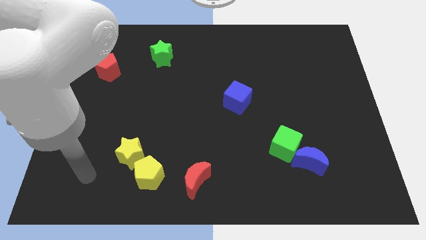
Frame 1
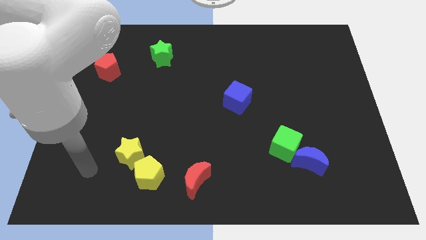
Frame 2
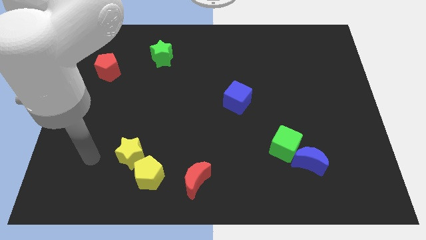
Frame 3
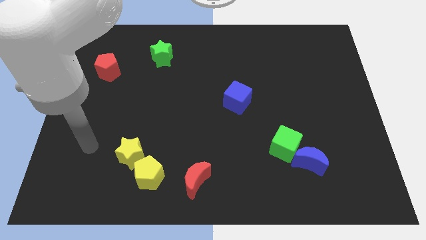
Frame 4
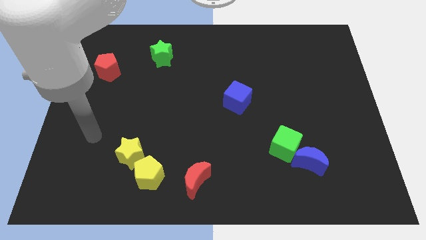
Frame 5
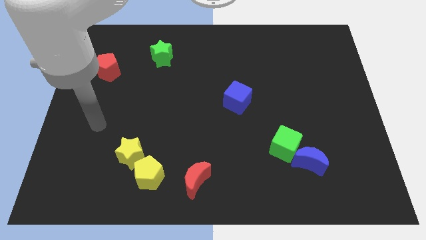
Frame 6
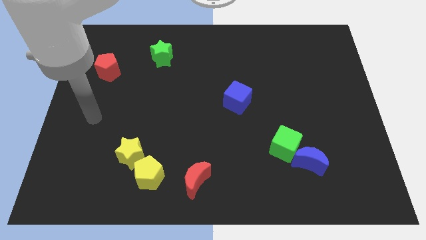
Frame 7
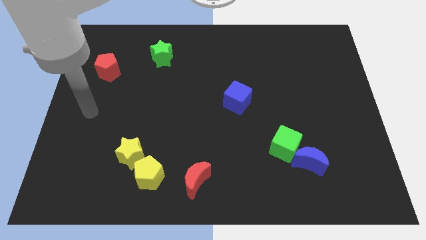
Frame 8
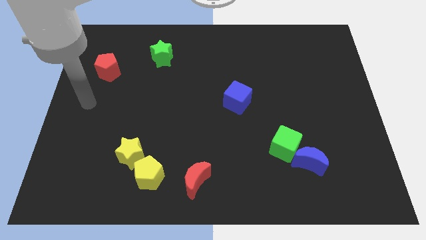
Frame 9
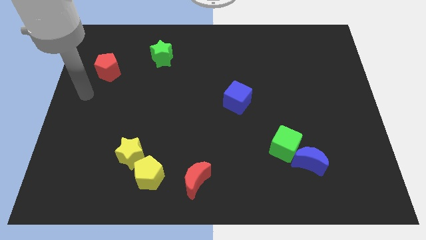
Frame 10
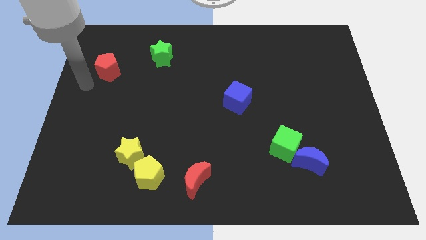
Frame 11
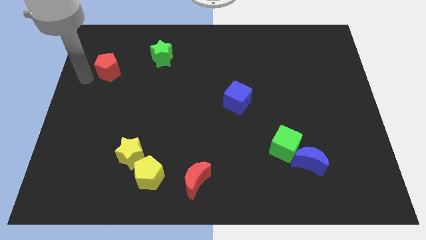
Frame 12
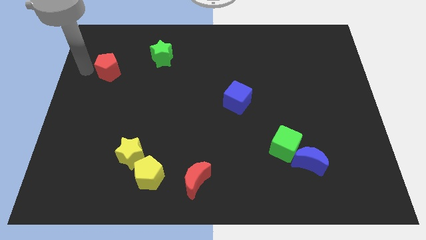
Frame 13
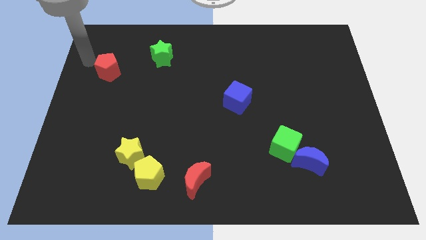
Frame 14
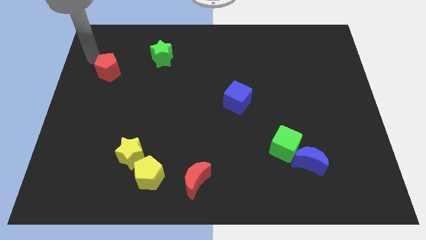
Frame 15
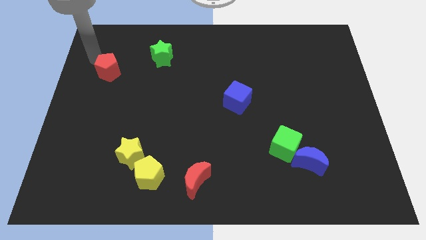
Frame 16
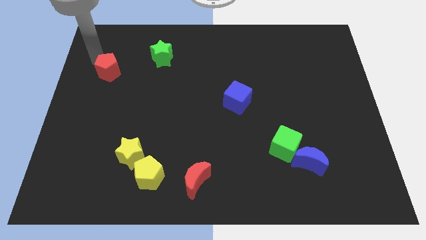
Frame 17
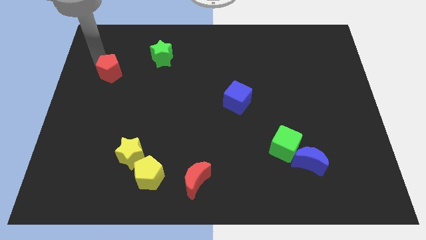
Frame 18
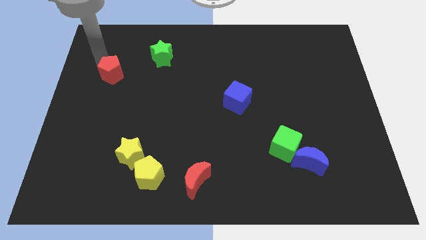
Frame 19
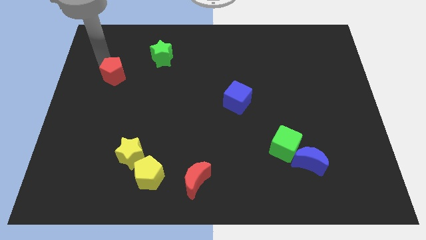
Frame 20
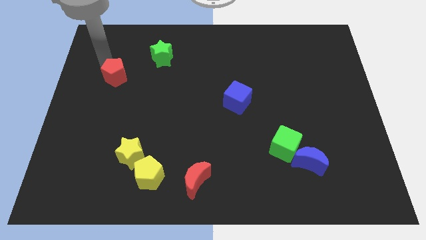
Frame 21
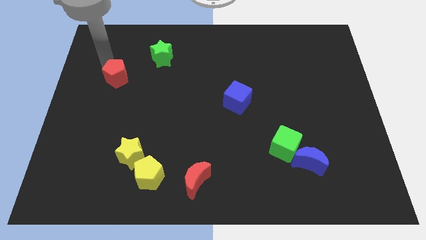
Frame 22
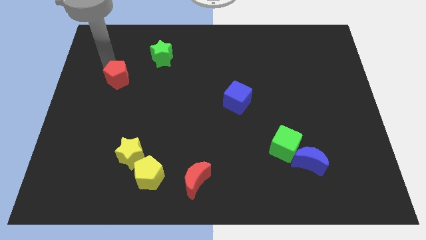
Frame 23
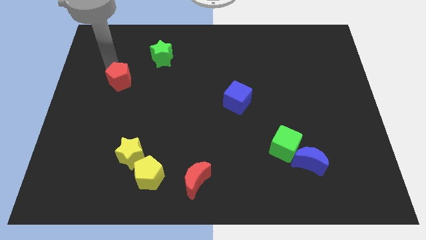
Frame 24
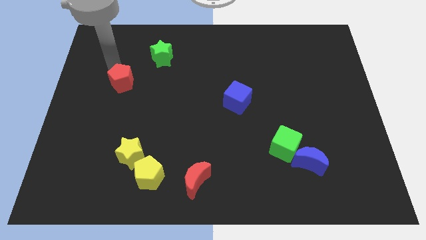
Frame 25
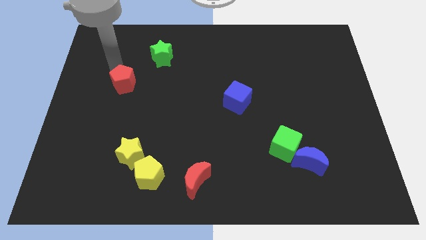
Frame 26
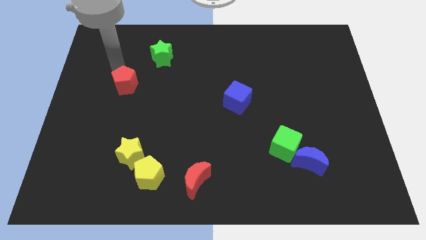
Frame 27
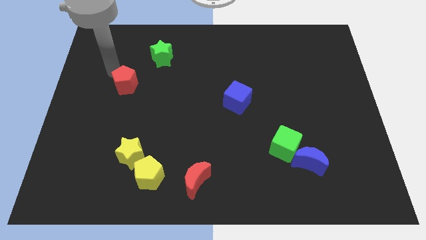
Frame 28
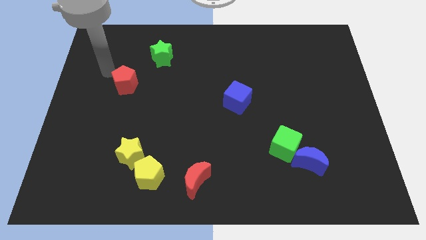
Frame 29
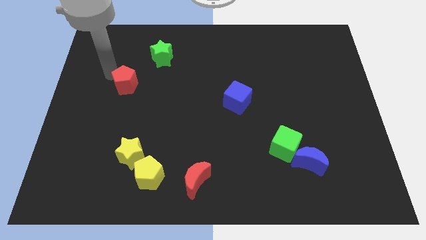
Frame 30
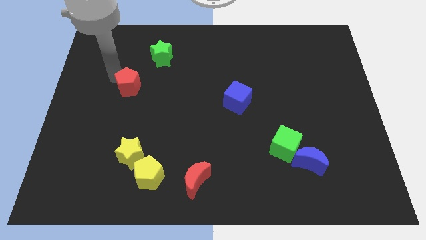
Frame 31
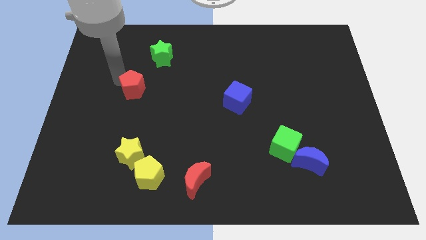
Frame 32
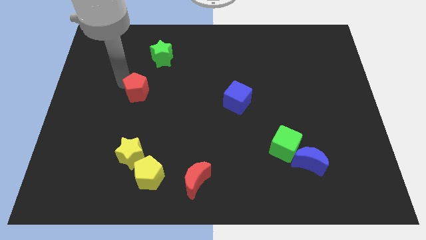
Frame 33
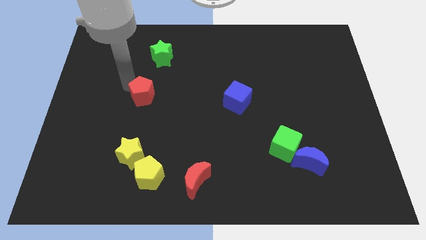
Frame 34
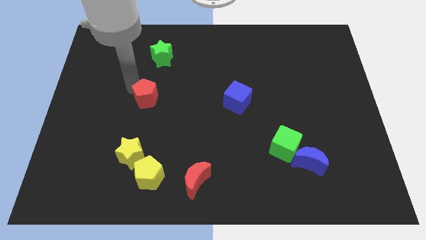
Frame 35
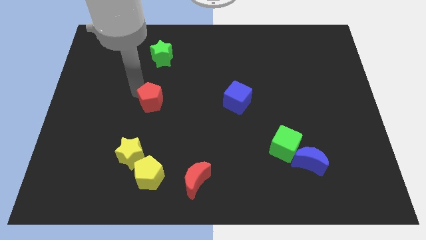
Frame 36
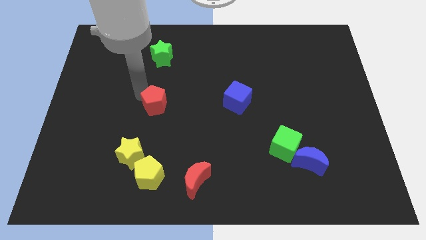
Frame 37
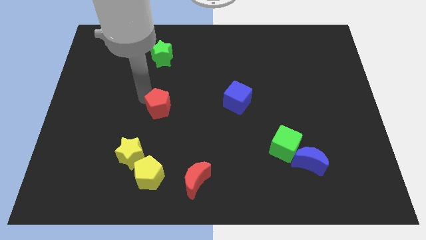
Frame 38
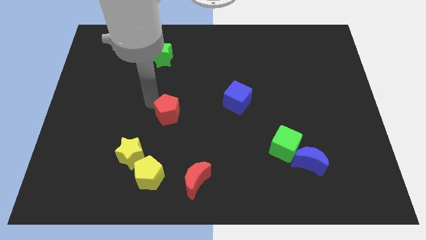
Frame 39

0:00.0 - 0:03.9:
move the red pentagon diagonally downwards and right

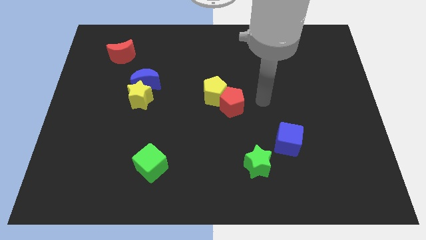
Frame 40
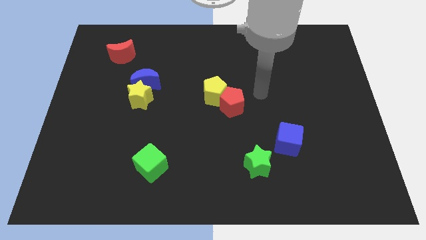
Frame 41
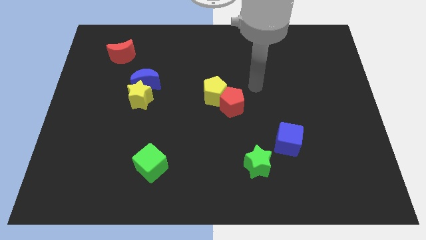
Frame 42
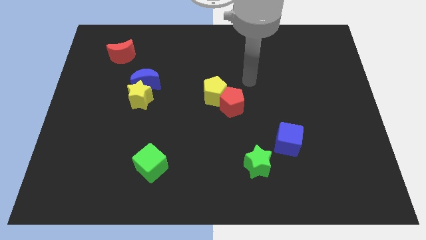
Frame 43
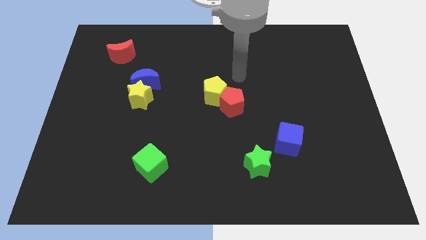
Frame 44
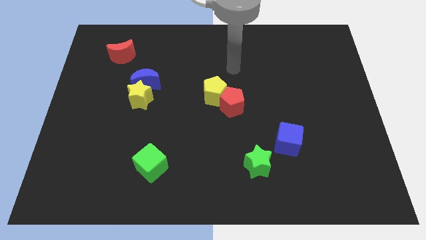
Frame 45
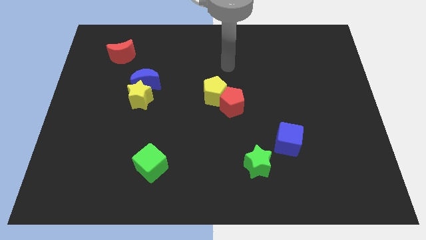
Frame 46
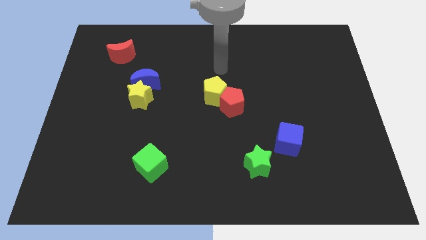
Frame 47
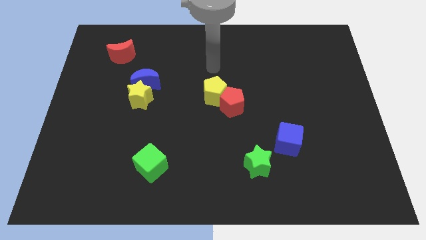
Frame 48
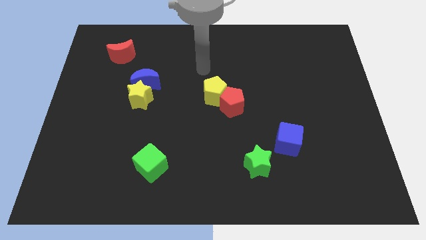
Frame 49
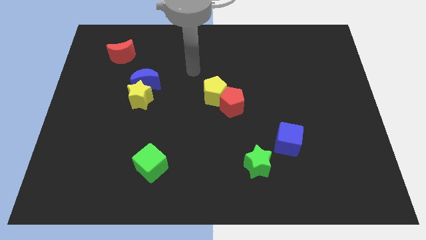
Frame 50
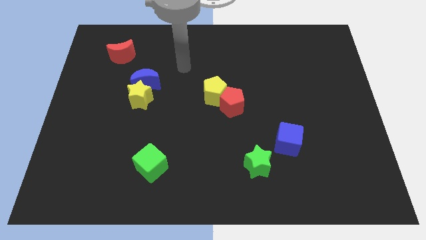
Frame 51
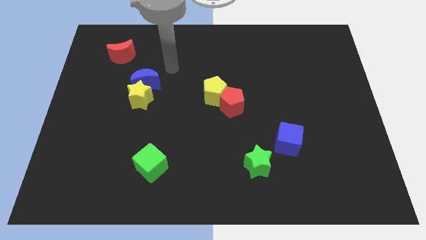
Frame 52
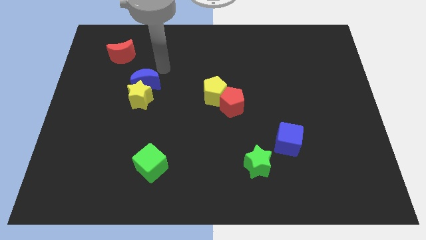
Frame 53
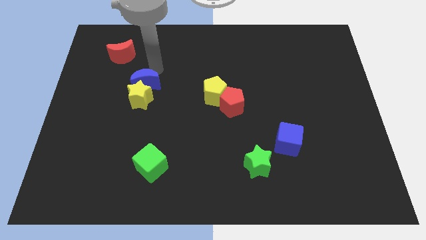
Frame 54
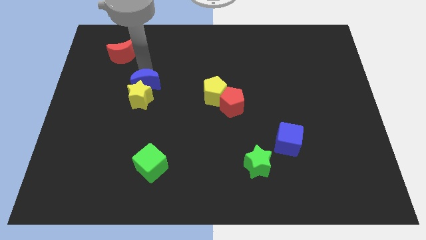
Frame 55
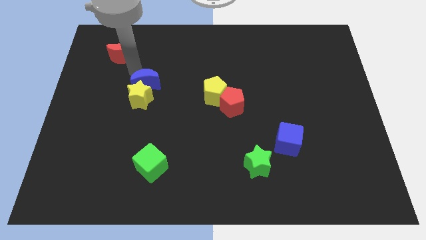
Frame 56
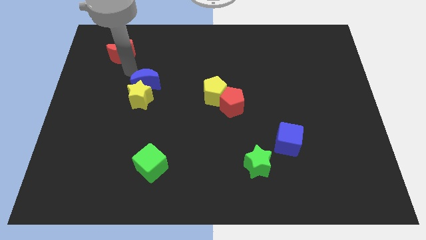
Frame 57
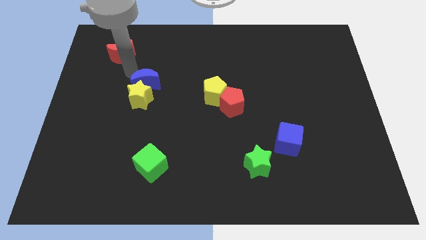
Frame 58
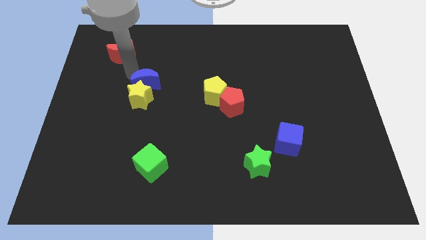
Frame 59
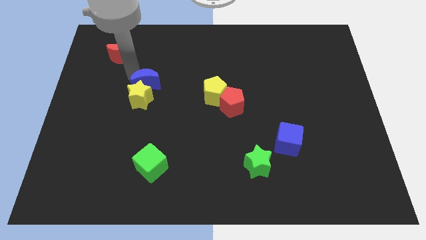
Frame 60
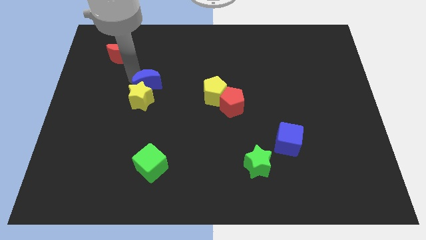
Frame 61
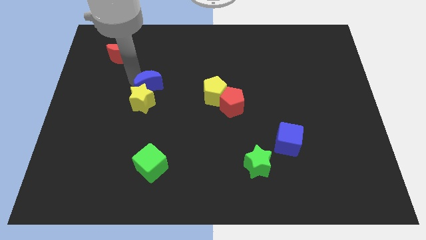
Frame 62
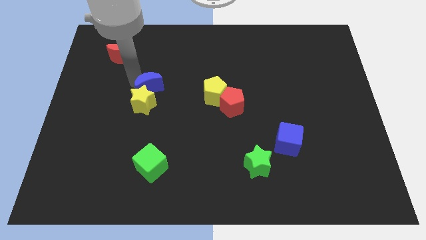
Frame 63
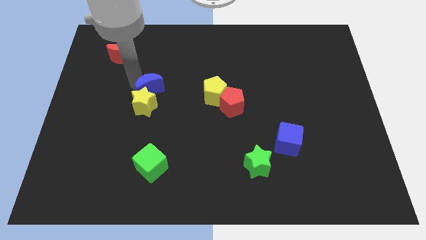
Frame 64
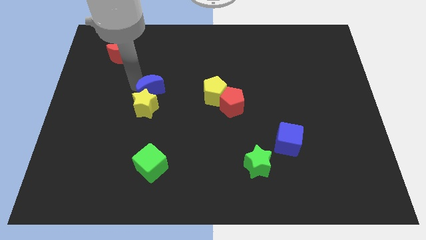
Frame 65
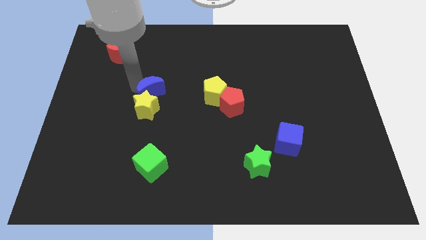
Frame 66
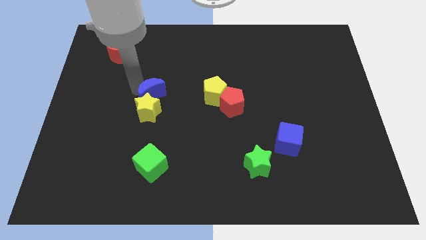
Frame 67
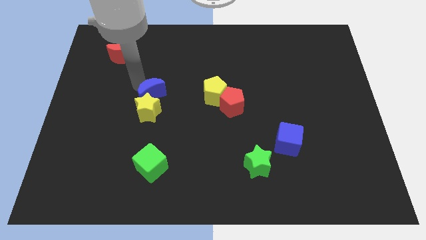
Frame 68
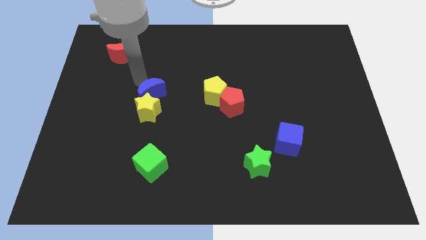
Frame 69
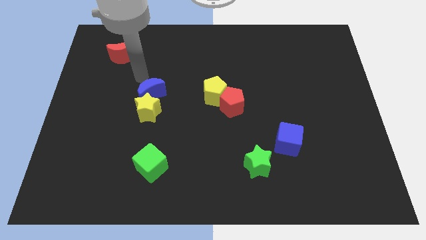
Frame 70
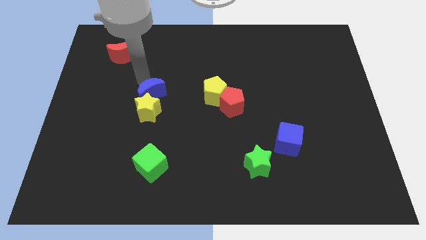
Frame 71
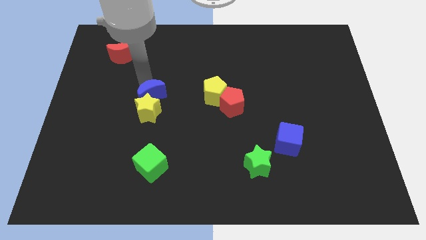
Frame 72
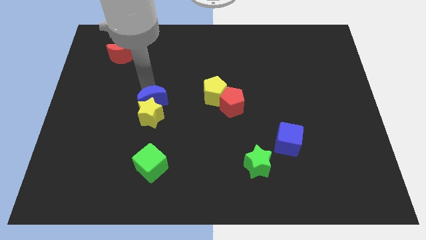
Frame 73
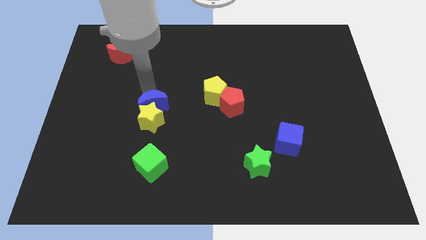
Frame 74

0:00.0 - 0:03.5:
slightly move the blue moon downwards

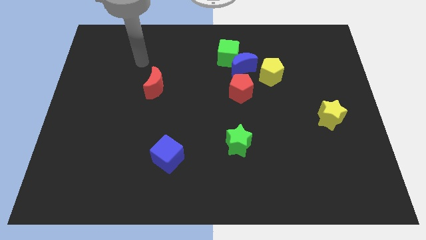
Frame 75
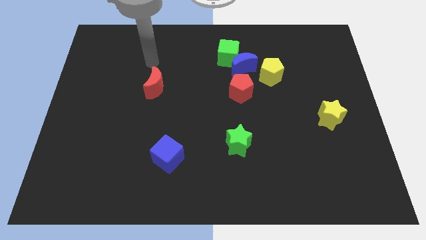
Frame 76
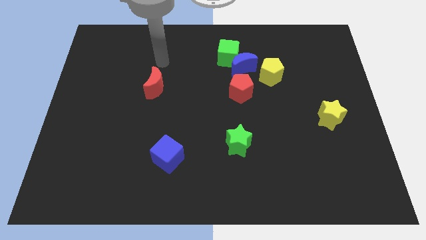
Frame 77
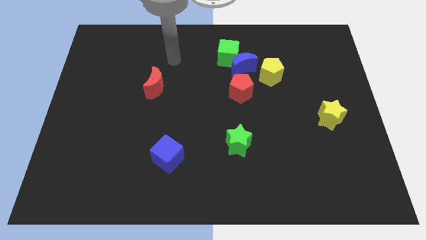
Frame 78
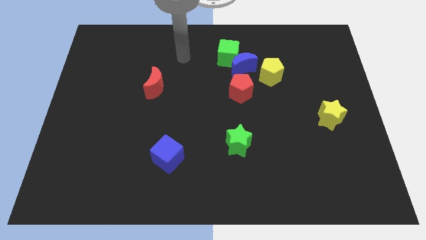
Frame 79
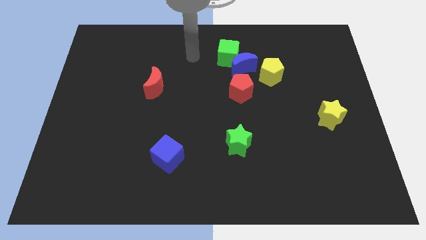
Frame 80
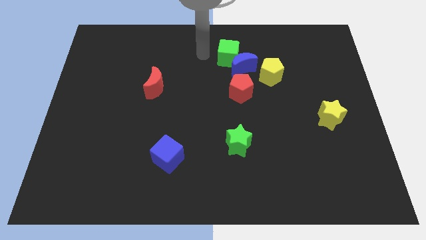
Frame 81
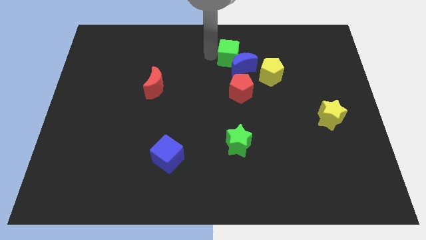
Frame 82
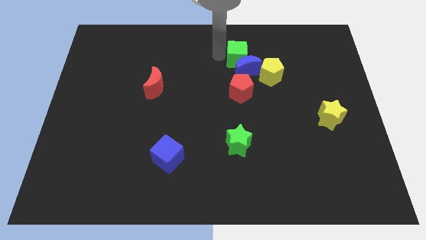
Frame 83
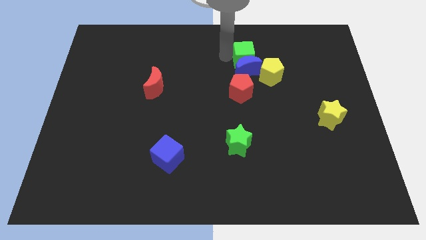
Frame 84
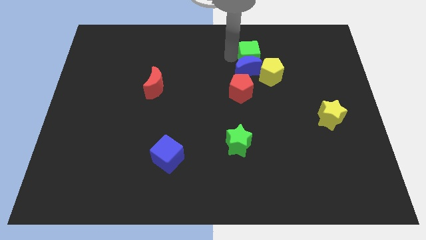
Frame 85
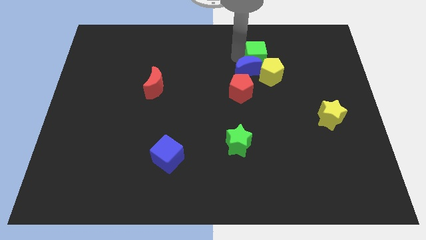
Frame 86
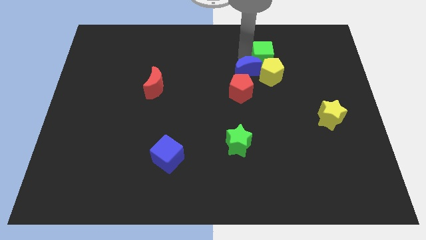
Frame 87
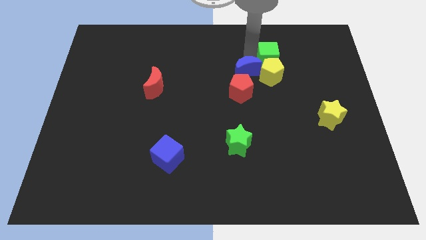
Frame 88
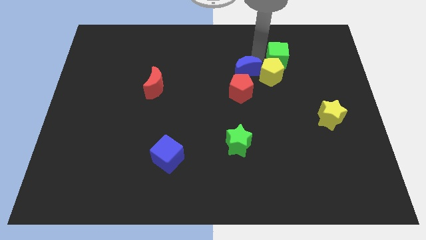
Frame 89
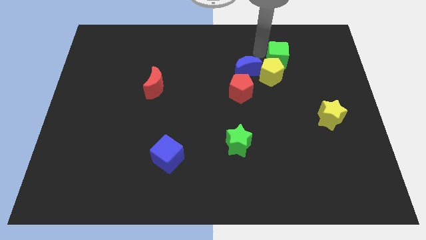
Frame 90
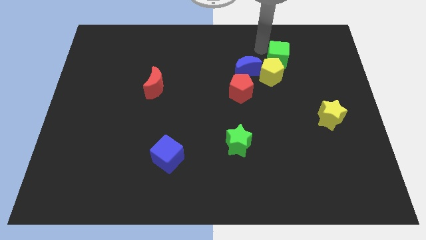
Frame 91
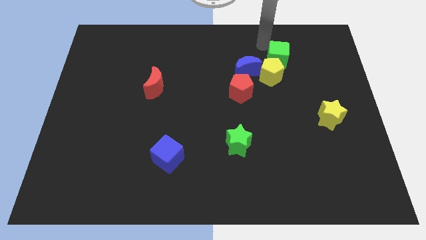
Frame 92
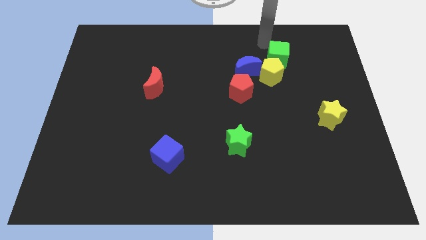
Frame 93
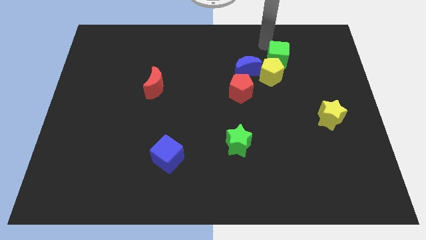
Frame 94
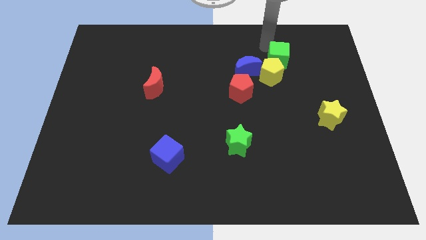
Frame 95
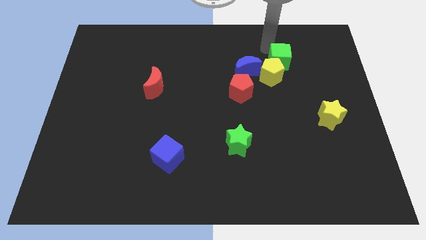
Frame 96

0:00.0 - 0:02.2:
slightly push the green cube down and to the right diagonally
